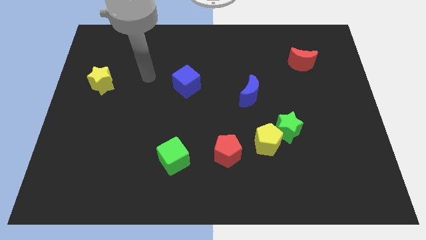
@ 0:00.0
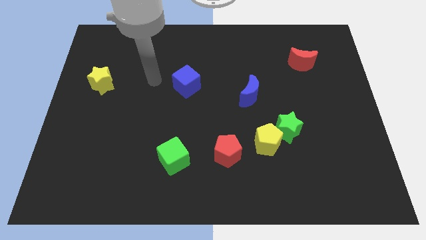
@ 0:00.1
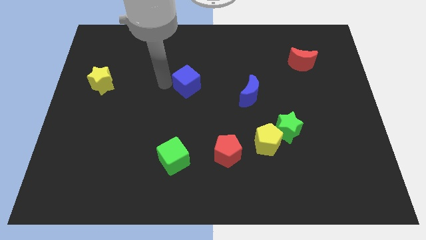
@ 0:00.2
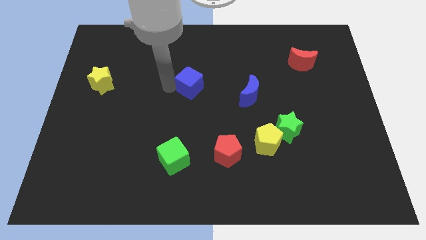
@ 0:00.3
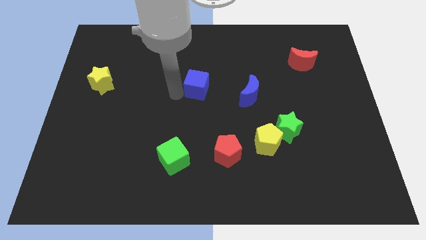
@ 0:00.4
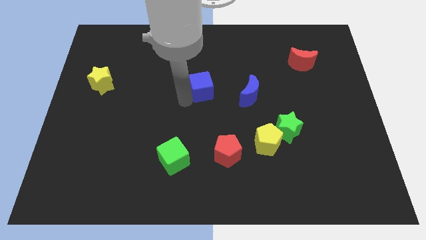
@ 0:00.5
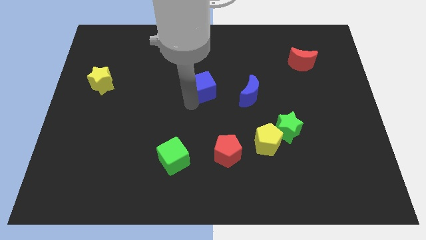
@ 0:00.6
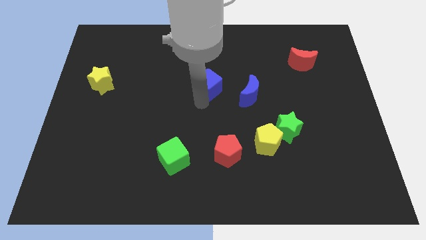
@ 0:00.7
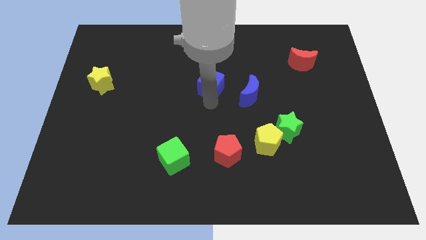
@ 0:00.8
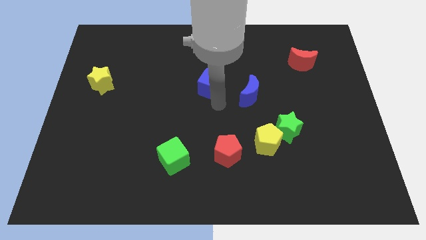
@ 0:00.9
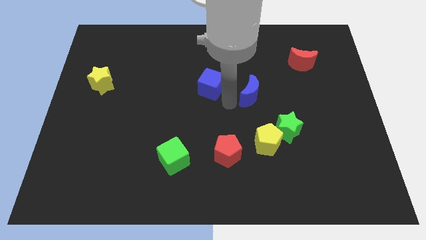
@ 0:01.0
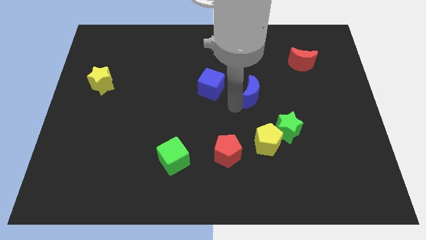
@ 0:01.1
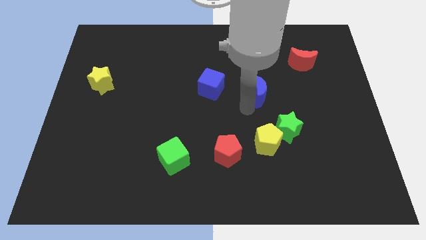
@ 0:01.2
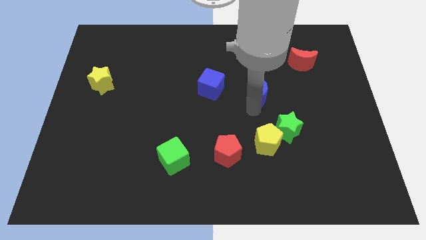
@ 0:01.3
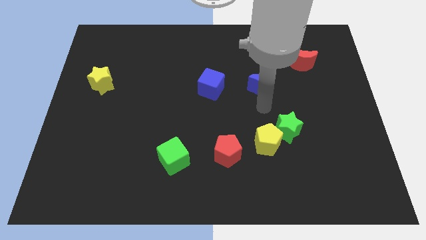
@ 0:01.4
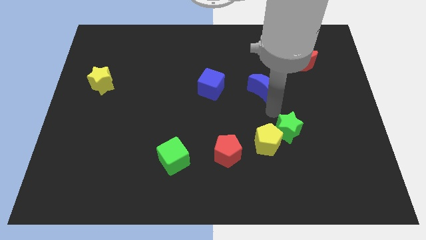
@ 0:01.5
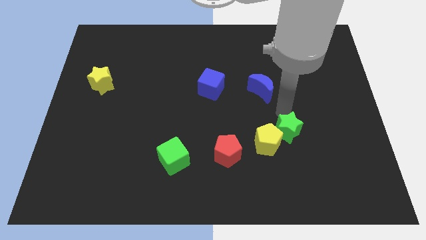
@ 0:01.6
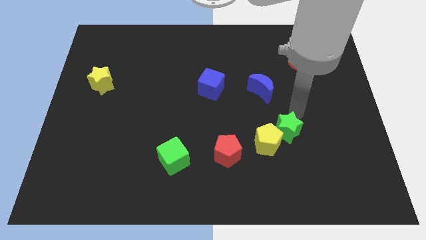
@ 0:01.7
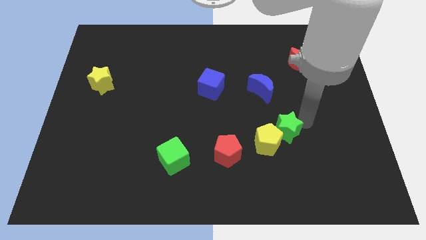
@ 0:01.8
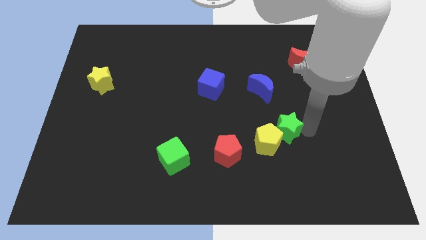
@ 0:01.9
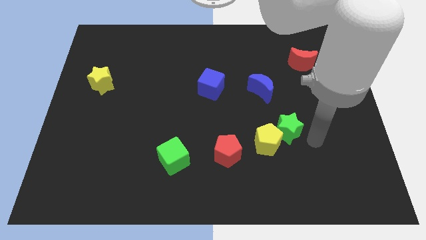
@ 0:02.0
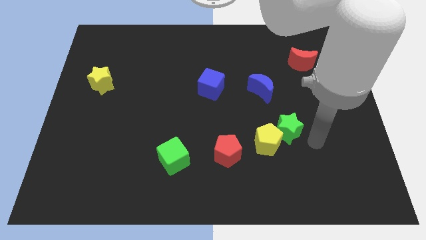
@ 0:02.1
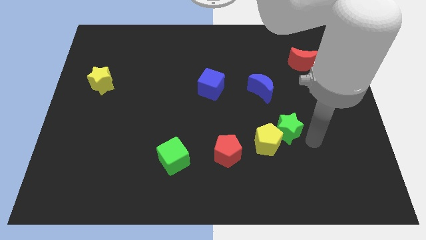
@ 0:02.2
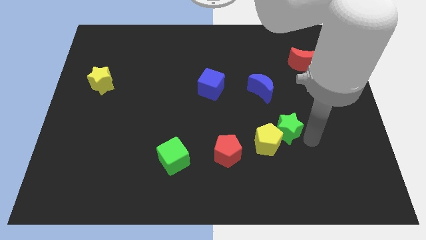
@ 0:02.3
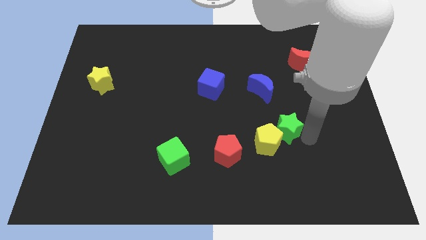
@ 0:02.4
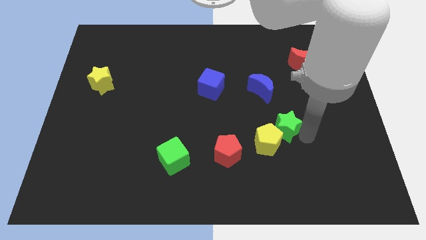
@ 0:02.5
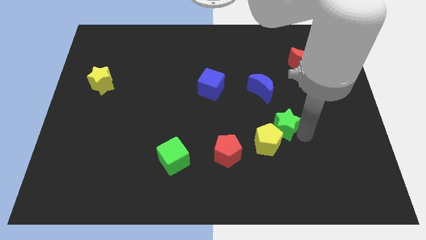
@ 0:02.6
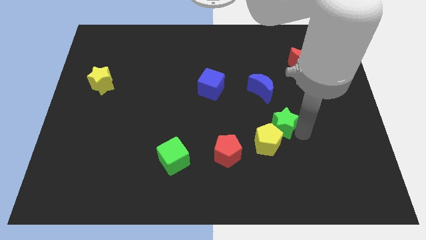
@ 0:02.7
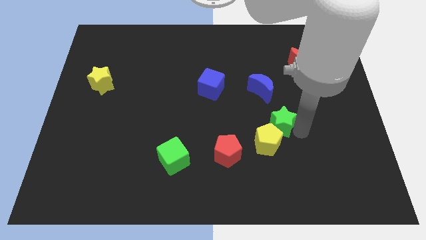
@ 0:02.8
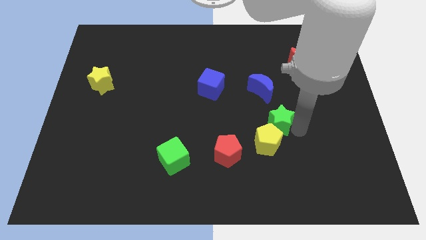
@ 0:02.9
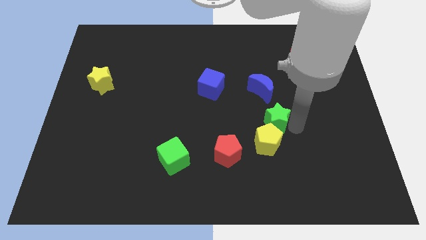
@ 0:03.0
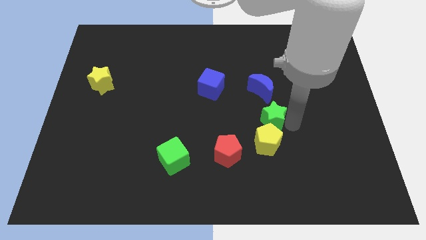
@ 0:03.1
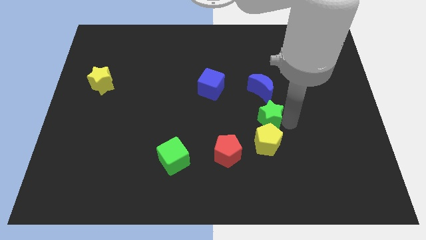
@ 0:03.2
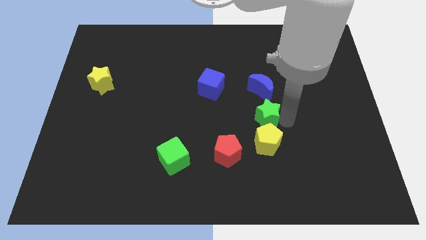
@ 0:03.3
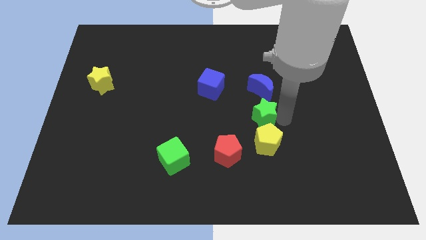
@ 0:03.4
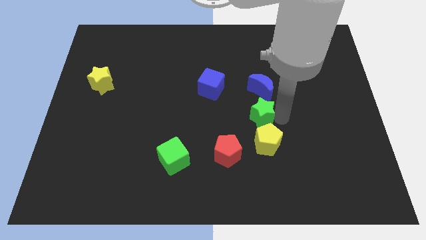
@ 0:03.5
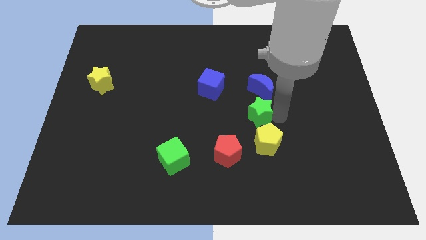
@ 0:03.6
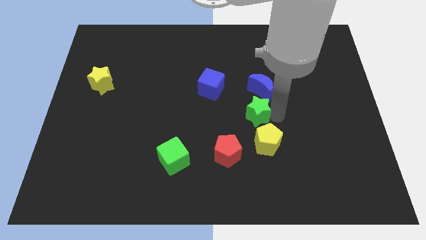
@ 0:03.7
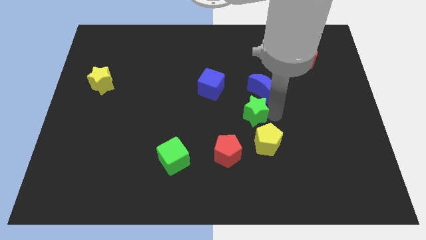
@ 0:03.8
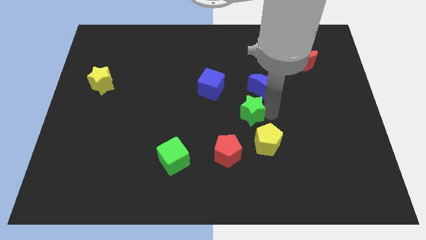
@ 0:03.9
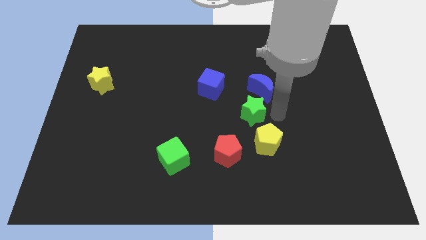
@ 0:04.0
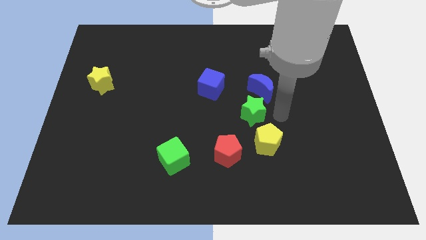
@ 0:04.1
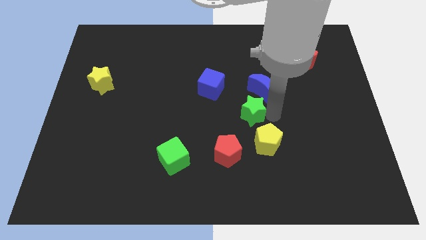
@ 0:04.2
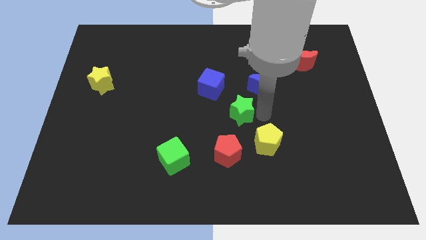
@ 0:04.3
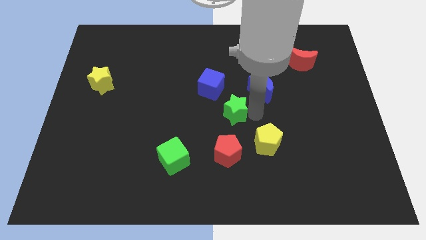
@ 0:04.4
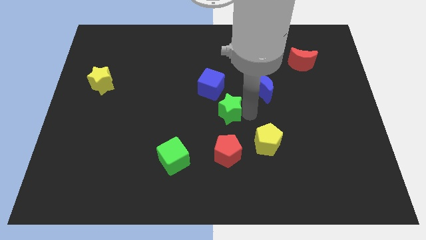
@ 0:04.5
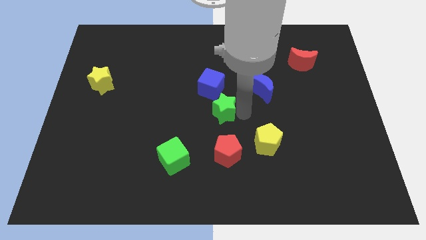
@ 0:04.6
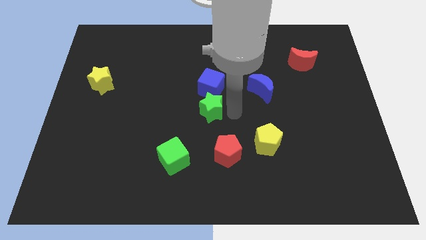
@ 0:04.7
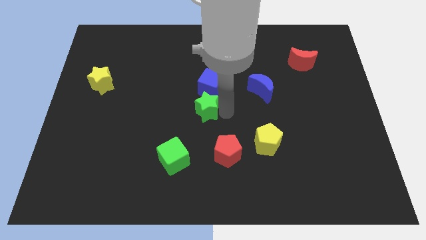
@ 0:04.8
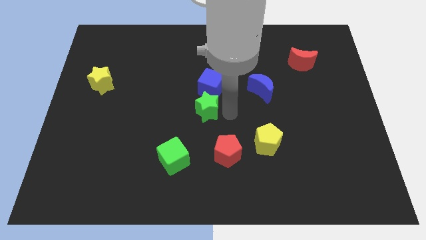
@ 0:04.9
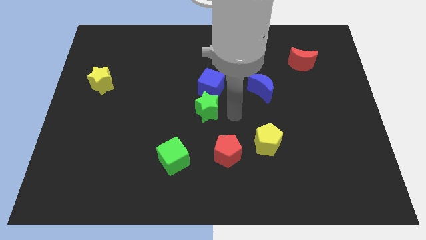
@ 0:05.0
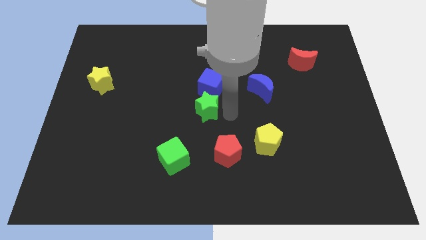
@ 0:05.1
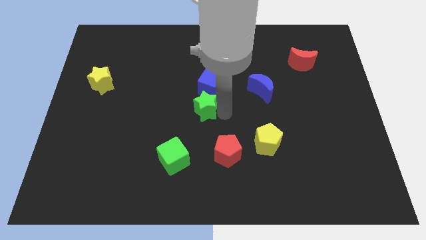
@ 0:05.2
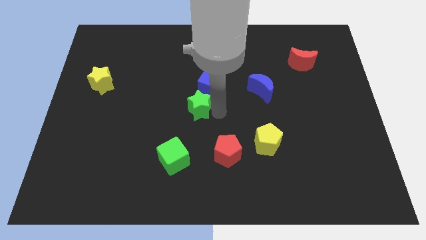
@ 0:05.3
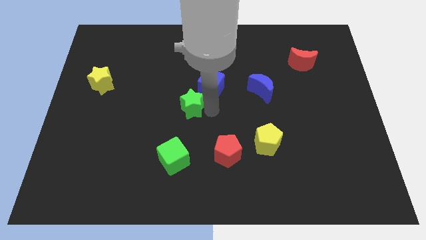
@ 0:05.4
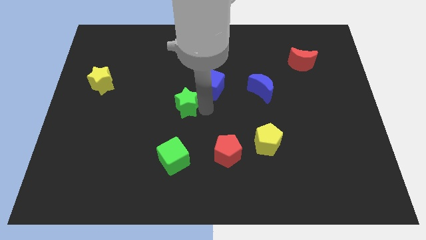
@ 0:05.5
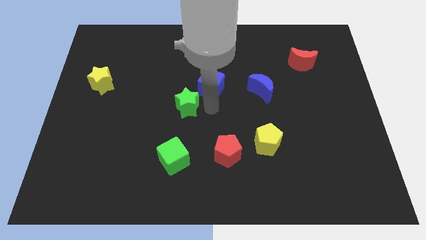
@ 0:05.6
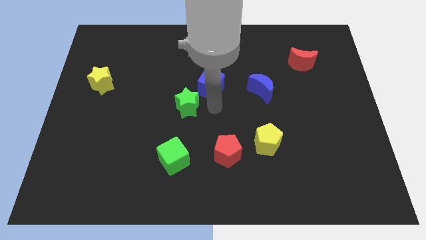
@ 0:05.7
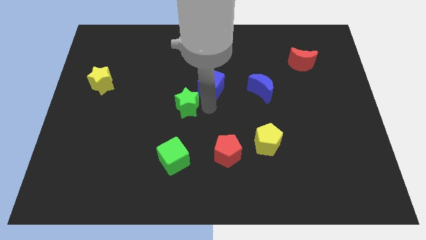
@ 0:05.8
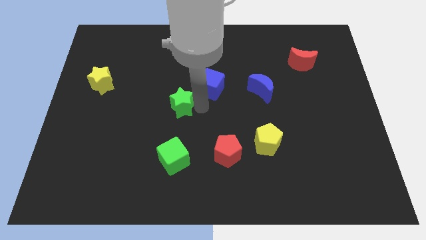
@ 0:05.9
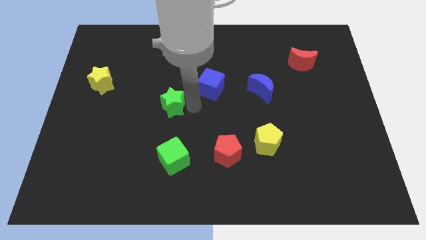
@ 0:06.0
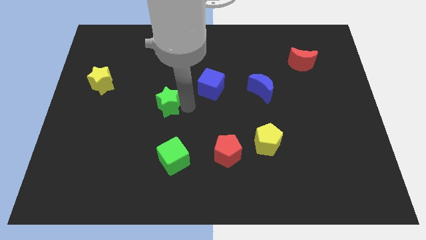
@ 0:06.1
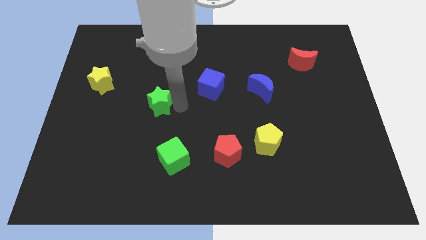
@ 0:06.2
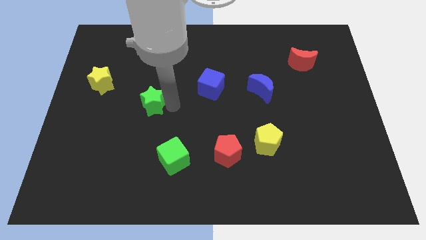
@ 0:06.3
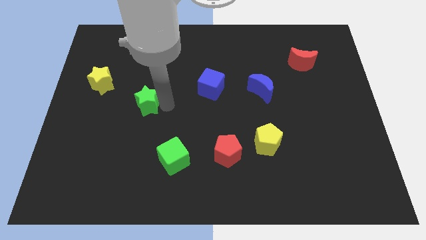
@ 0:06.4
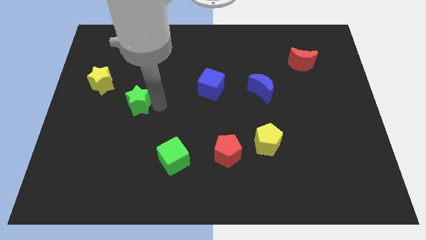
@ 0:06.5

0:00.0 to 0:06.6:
push the green star diagonally down and to the right of the yellow star

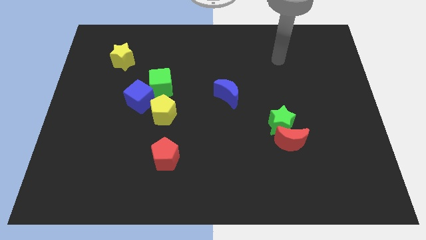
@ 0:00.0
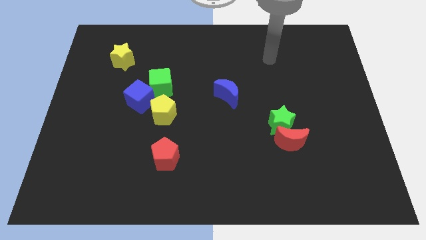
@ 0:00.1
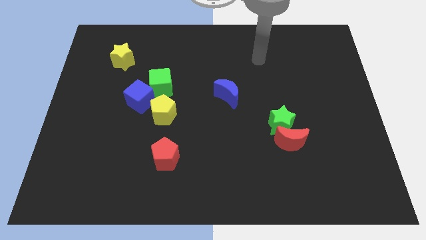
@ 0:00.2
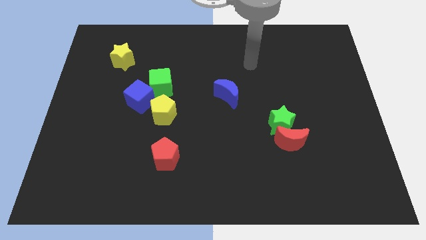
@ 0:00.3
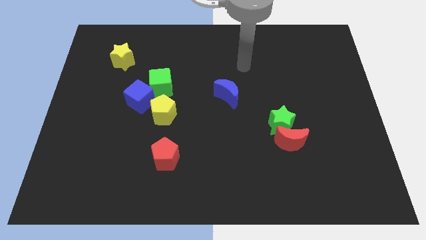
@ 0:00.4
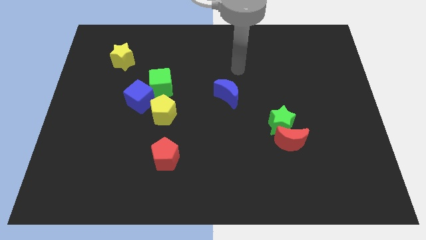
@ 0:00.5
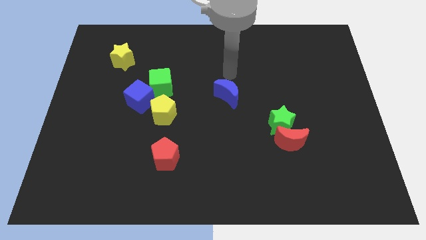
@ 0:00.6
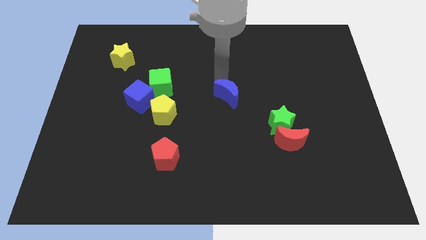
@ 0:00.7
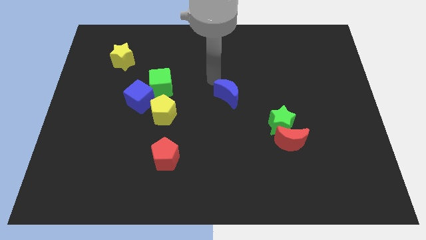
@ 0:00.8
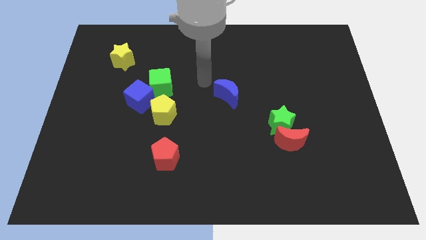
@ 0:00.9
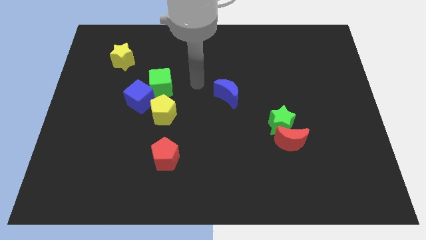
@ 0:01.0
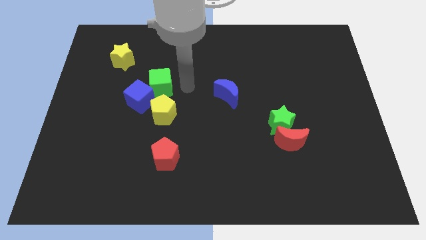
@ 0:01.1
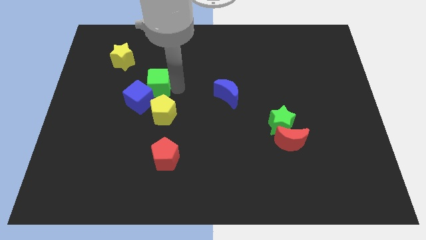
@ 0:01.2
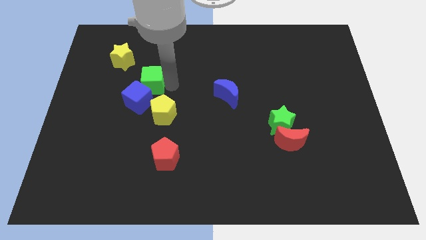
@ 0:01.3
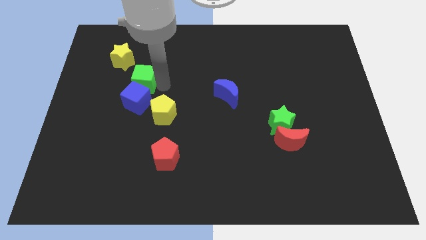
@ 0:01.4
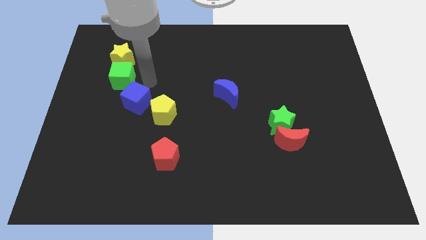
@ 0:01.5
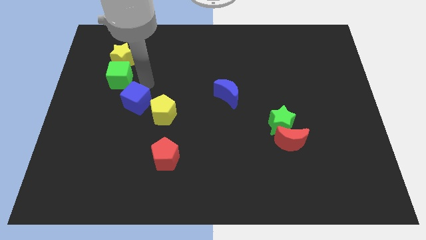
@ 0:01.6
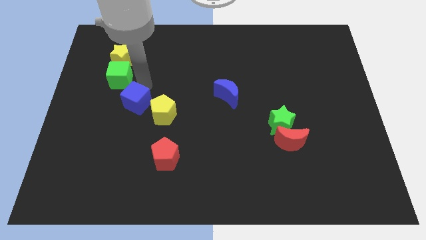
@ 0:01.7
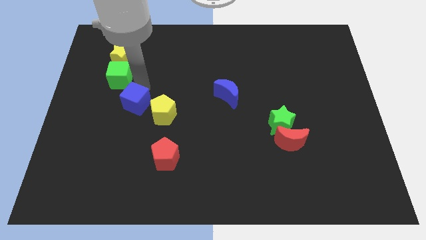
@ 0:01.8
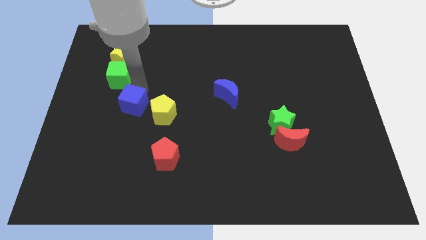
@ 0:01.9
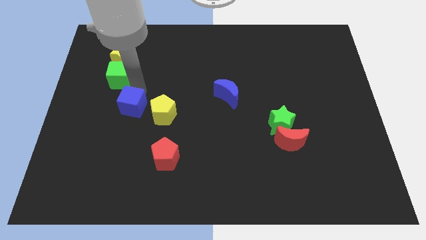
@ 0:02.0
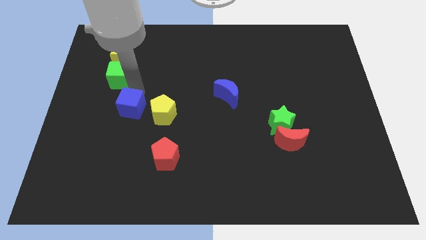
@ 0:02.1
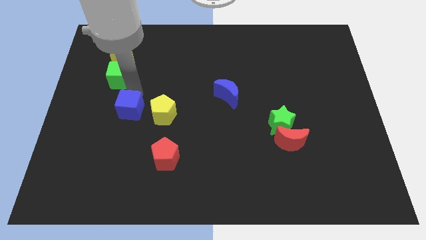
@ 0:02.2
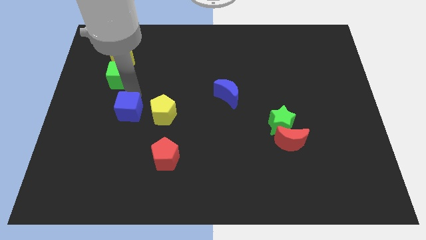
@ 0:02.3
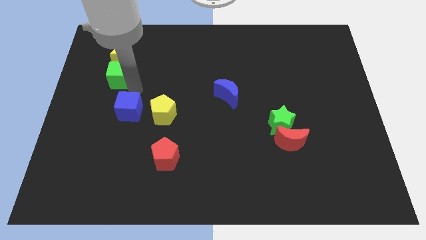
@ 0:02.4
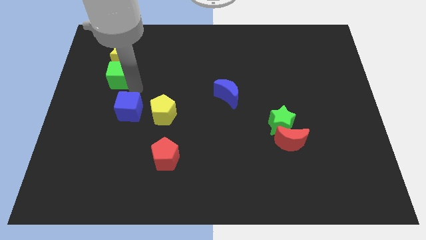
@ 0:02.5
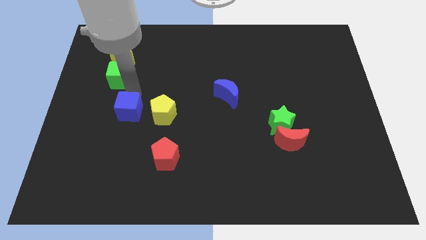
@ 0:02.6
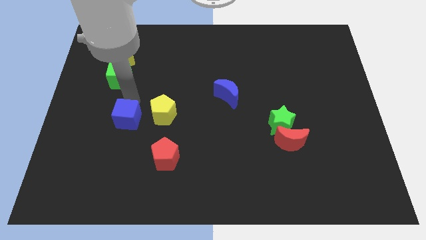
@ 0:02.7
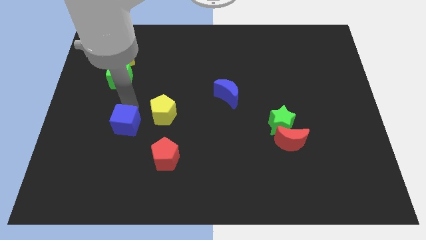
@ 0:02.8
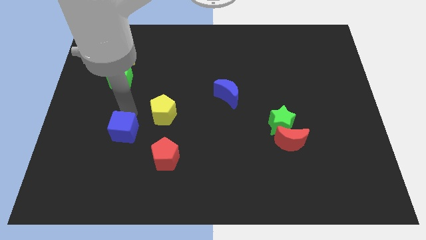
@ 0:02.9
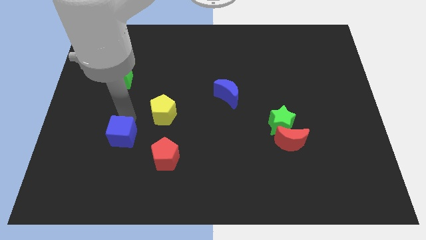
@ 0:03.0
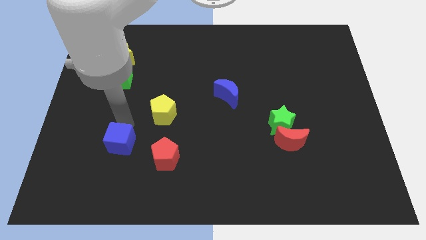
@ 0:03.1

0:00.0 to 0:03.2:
put the blue cube just left of the red pentagon
